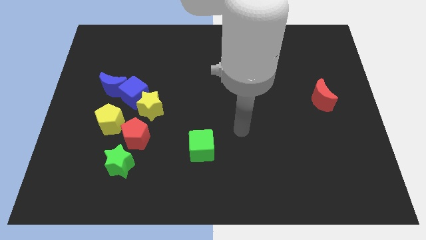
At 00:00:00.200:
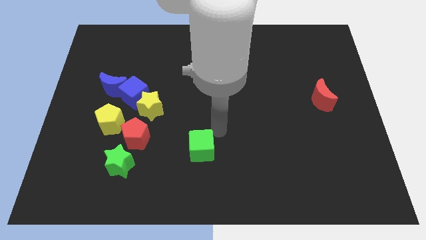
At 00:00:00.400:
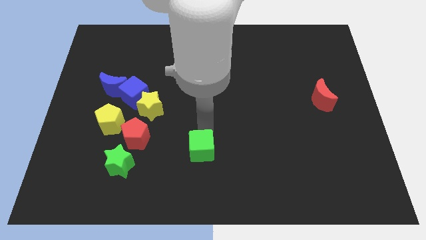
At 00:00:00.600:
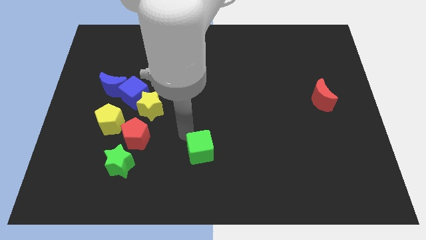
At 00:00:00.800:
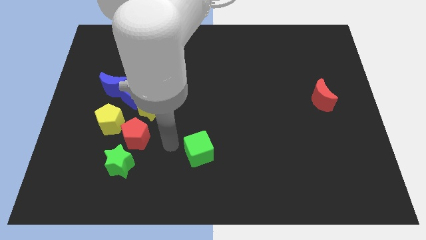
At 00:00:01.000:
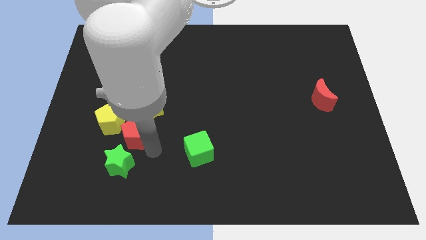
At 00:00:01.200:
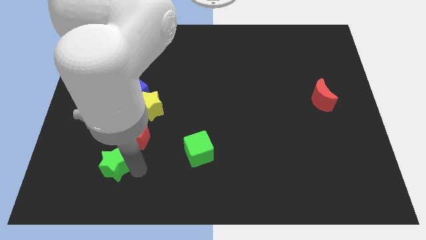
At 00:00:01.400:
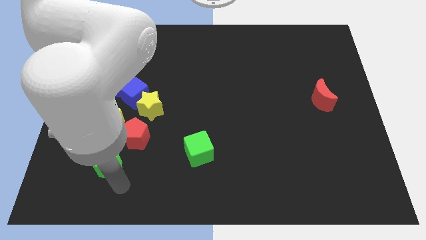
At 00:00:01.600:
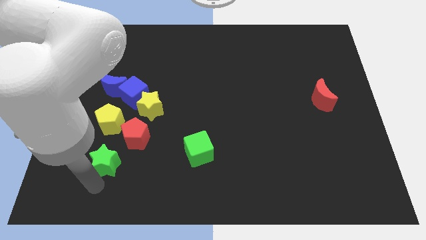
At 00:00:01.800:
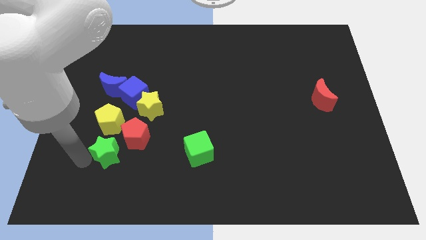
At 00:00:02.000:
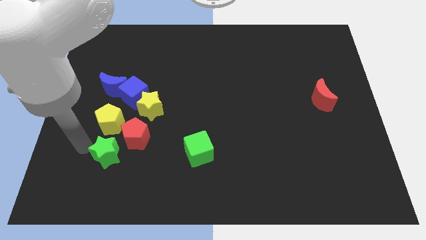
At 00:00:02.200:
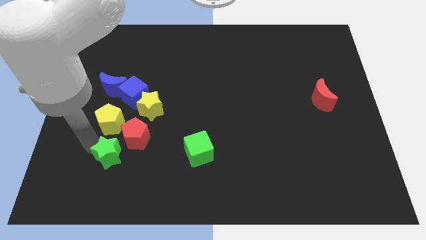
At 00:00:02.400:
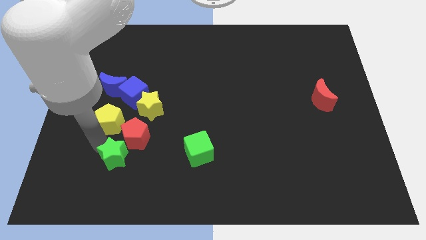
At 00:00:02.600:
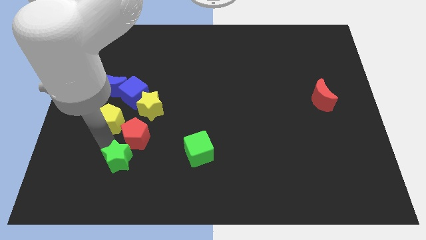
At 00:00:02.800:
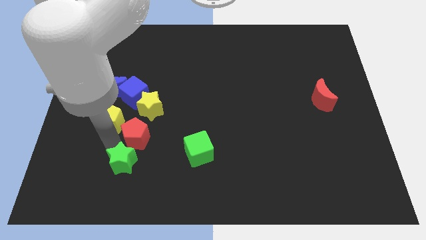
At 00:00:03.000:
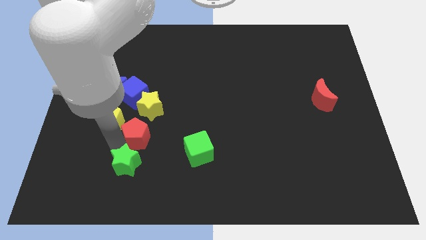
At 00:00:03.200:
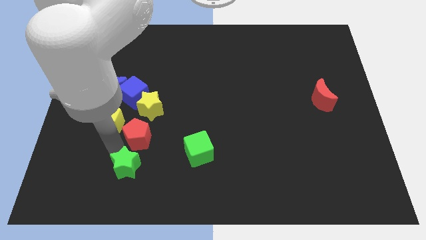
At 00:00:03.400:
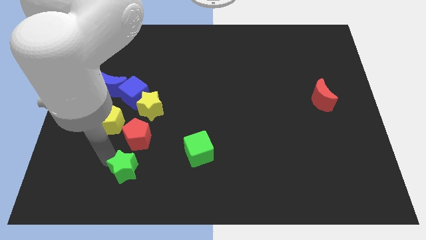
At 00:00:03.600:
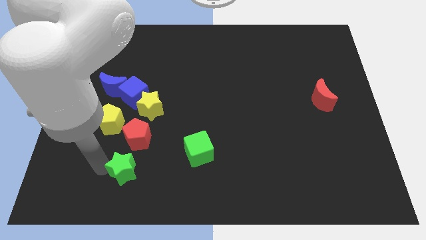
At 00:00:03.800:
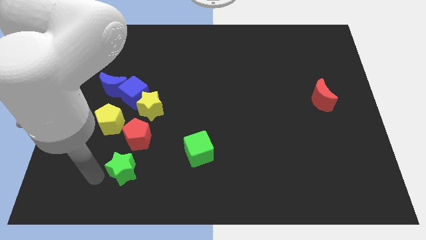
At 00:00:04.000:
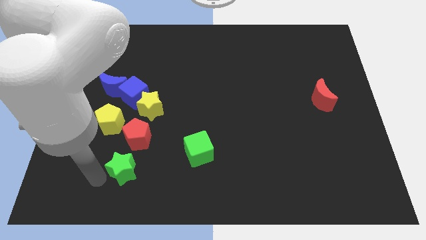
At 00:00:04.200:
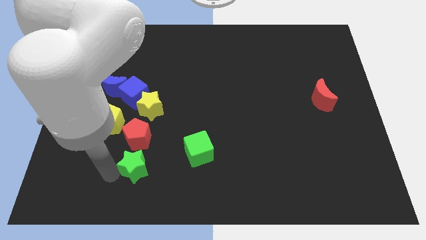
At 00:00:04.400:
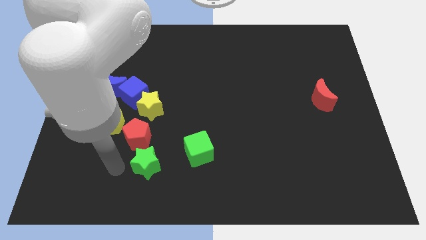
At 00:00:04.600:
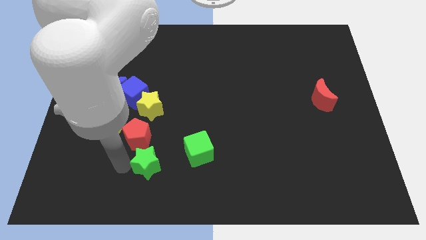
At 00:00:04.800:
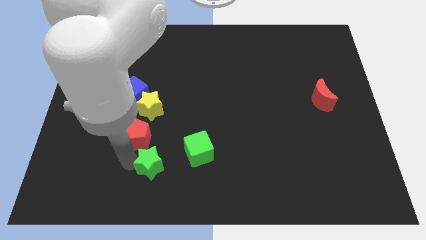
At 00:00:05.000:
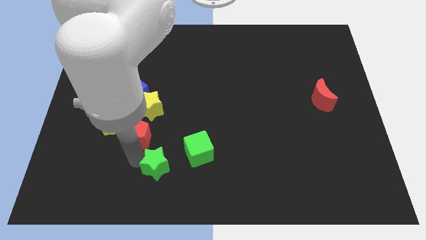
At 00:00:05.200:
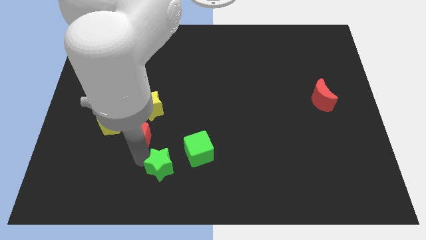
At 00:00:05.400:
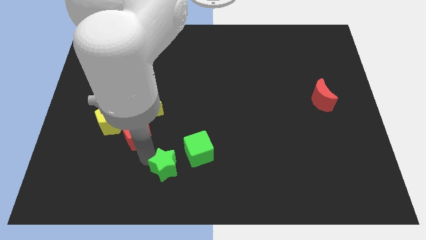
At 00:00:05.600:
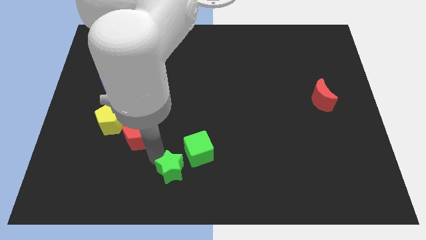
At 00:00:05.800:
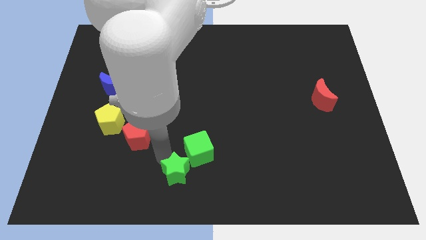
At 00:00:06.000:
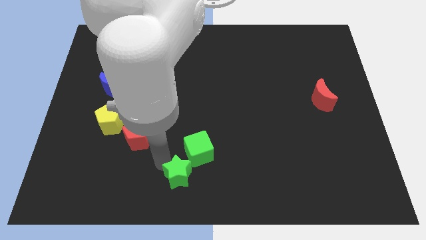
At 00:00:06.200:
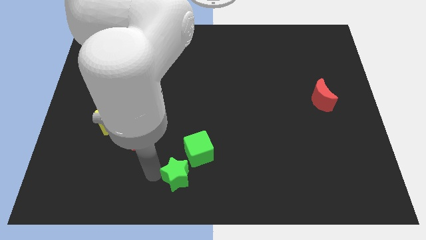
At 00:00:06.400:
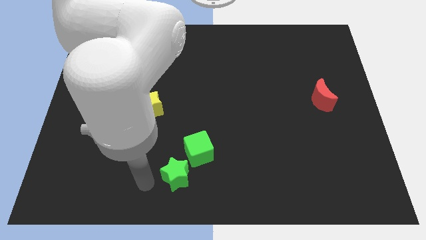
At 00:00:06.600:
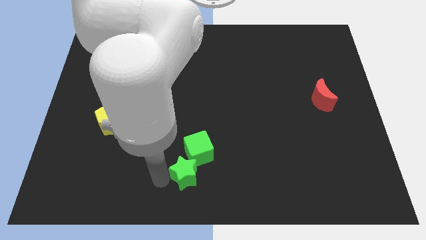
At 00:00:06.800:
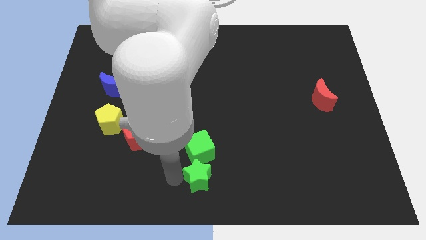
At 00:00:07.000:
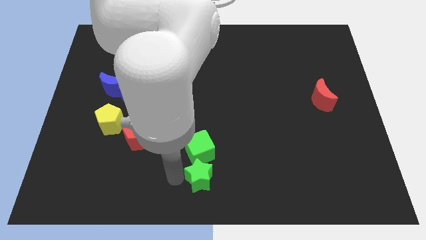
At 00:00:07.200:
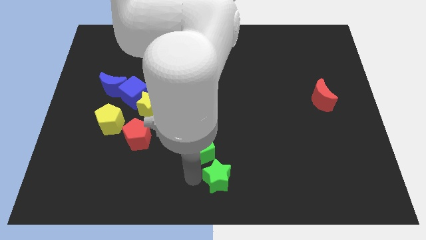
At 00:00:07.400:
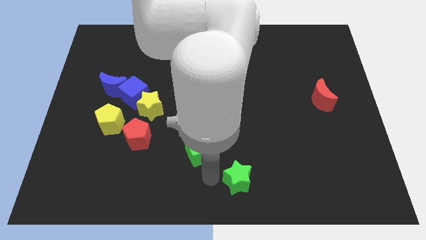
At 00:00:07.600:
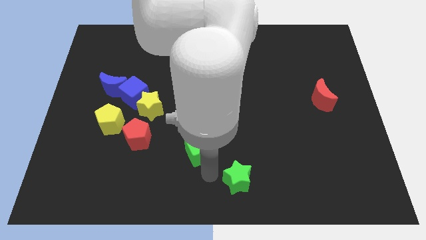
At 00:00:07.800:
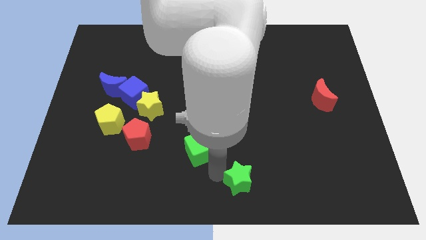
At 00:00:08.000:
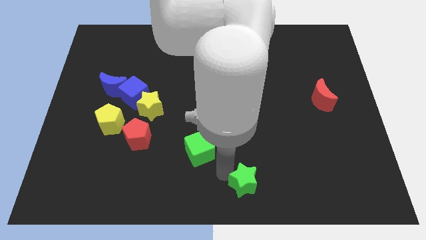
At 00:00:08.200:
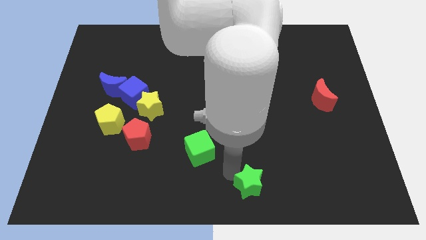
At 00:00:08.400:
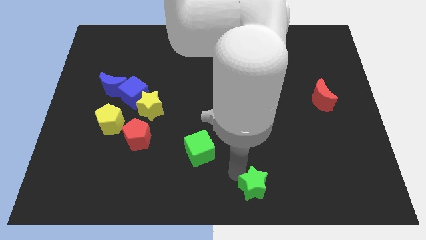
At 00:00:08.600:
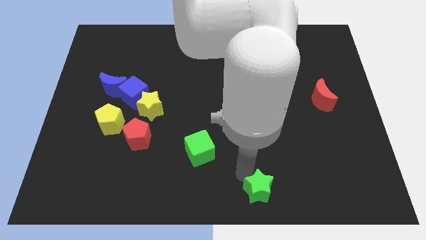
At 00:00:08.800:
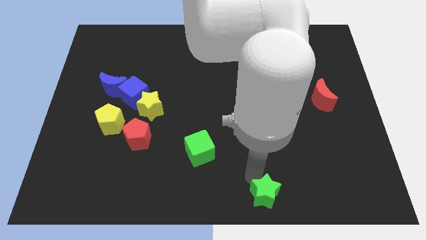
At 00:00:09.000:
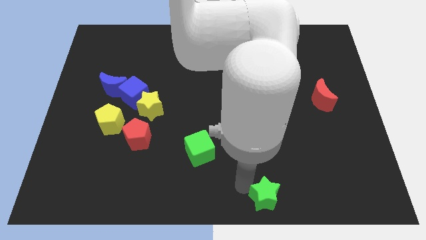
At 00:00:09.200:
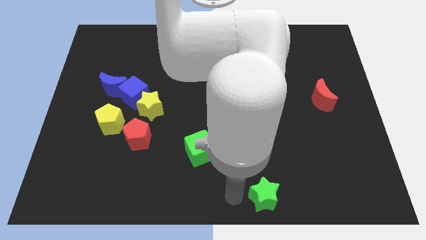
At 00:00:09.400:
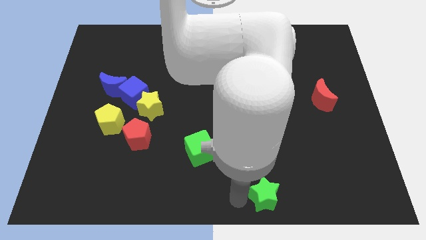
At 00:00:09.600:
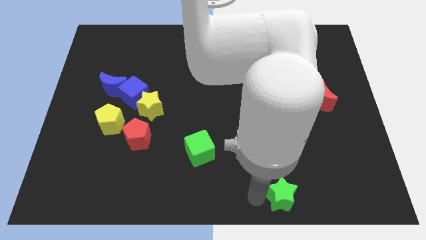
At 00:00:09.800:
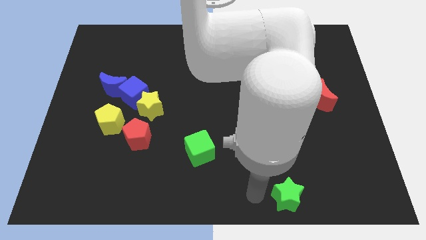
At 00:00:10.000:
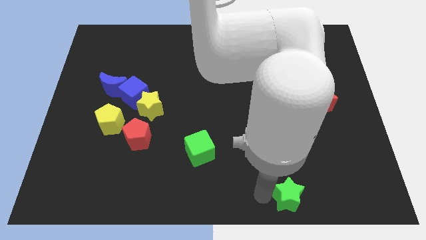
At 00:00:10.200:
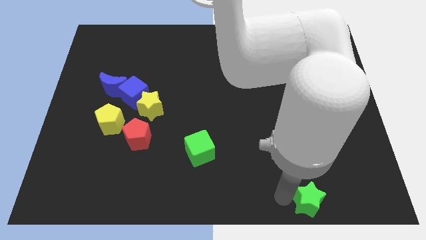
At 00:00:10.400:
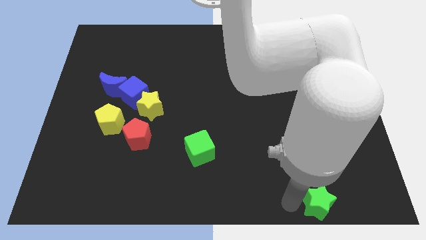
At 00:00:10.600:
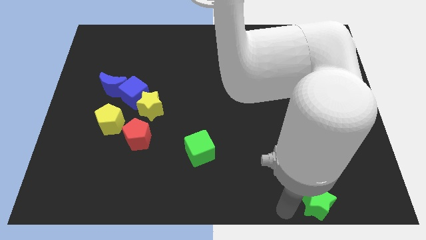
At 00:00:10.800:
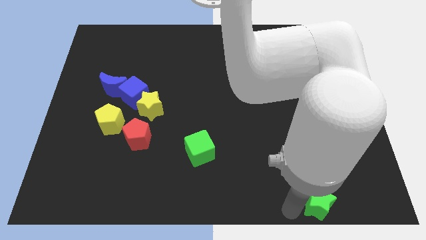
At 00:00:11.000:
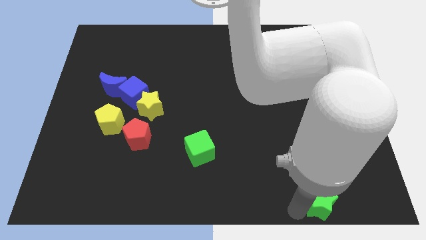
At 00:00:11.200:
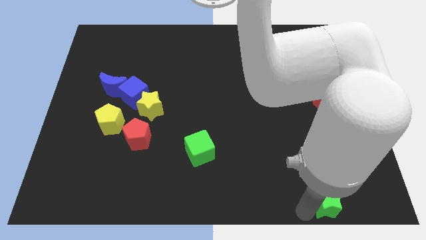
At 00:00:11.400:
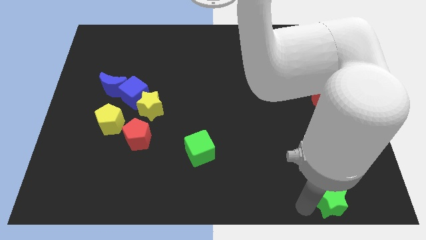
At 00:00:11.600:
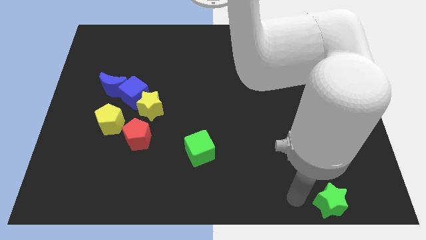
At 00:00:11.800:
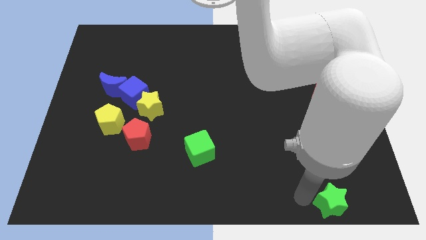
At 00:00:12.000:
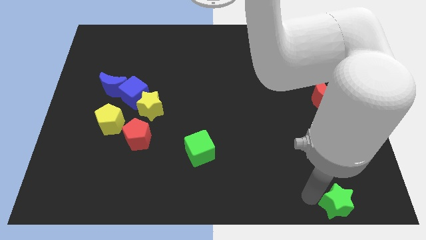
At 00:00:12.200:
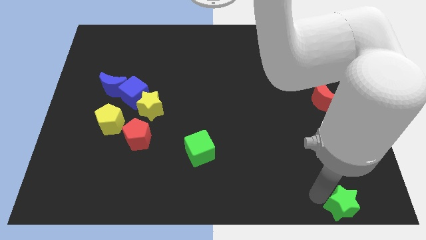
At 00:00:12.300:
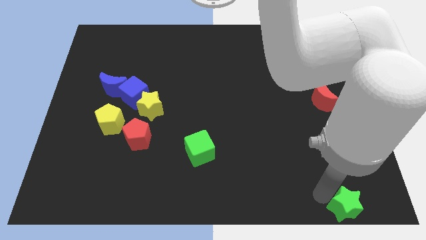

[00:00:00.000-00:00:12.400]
put the green star to the lower right corner
